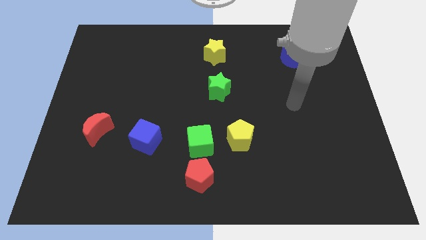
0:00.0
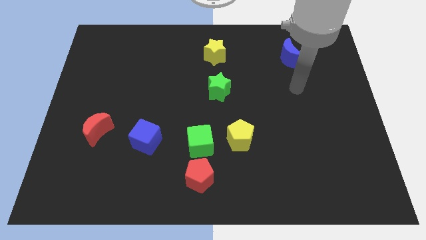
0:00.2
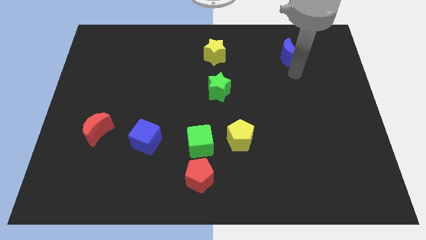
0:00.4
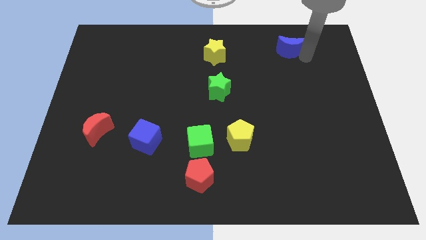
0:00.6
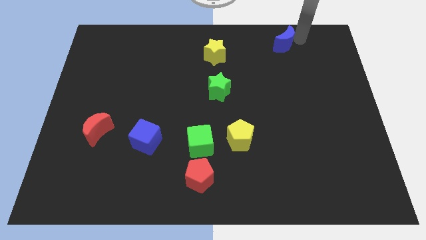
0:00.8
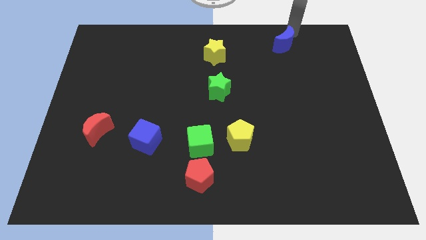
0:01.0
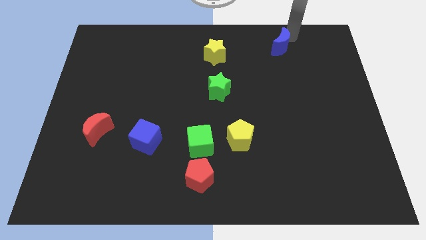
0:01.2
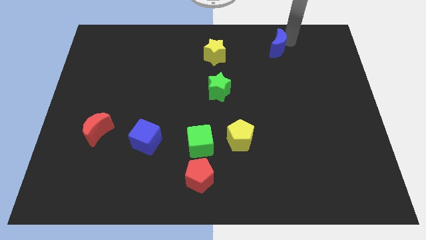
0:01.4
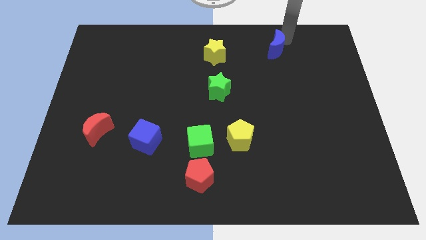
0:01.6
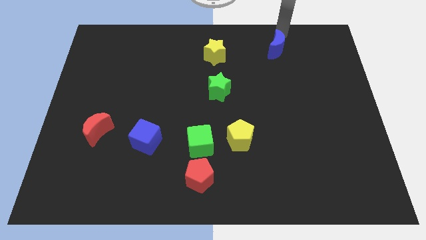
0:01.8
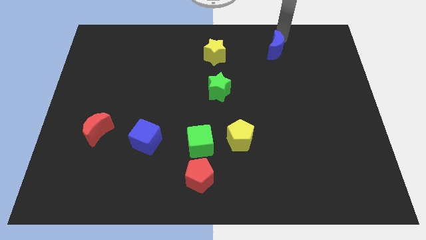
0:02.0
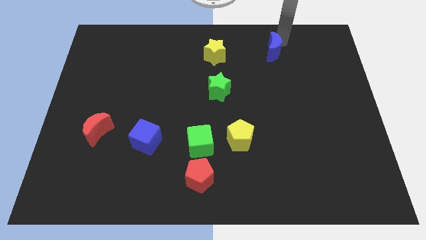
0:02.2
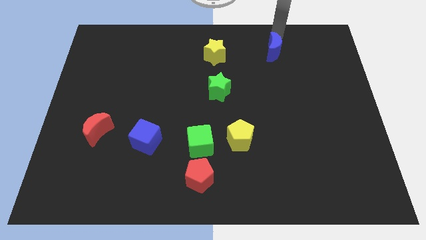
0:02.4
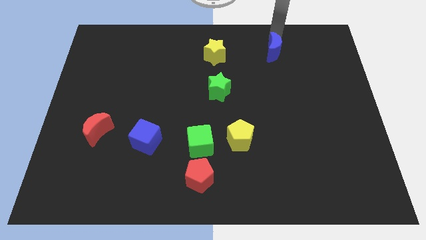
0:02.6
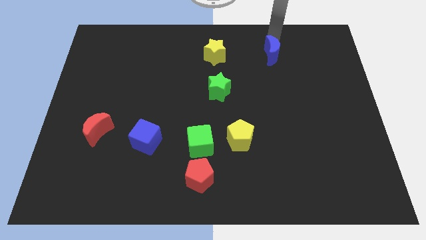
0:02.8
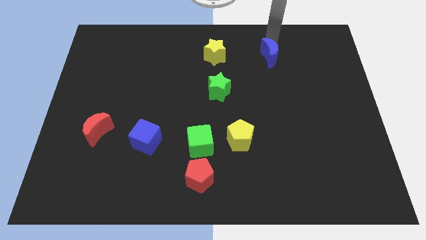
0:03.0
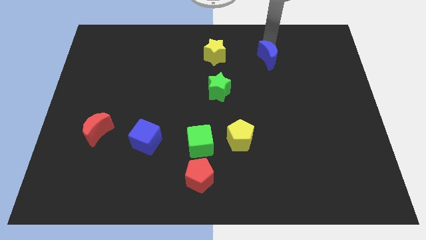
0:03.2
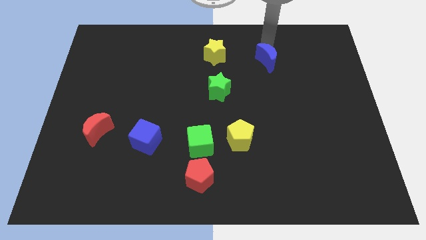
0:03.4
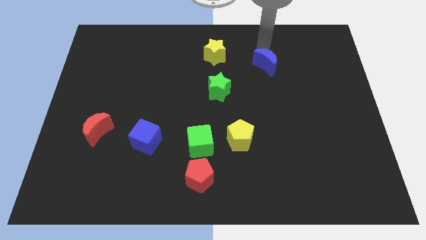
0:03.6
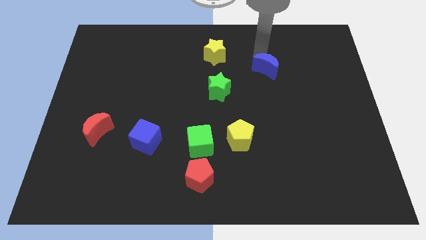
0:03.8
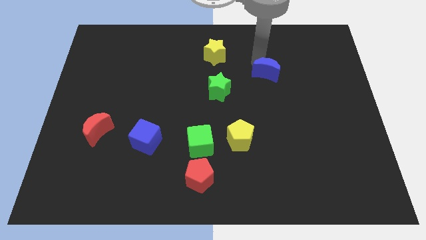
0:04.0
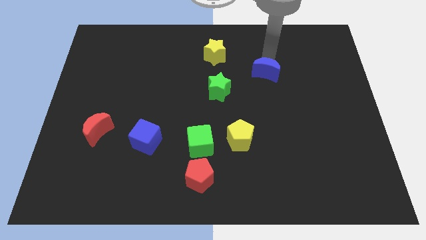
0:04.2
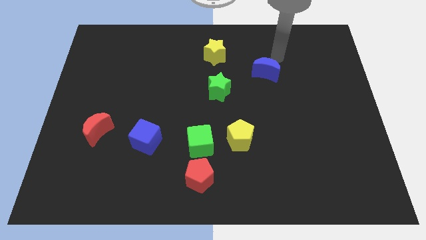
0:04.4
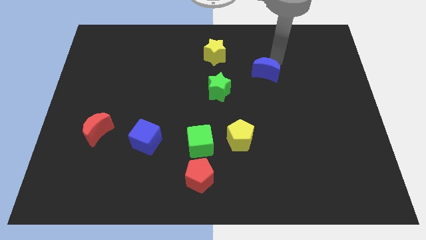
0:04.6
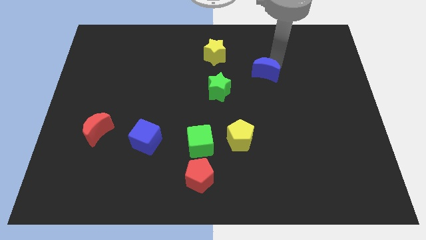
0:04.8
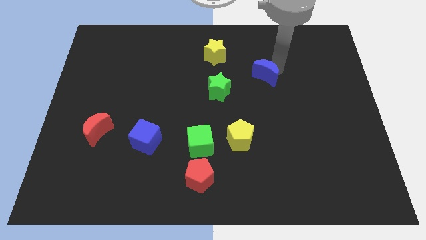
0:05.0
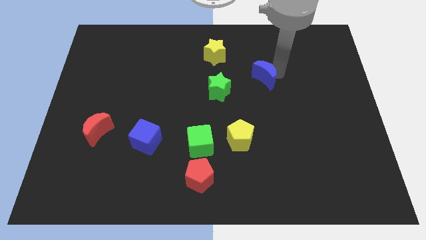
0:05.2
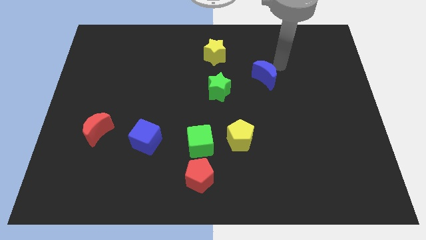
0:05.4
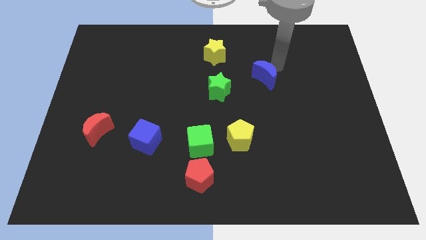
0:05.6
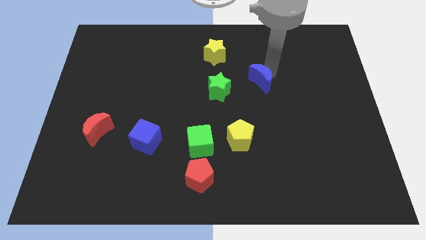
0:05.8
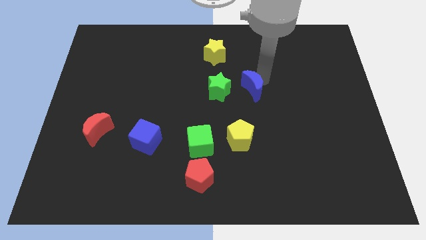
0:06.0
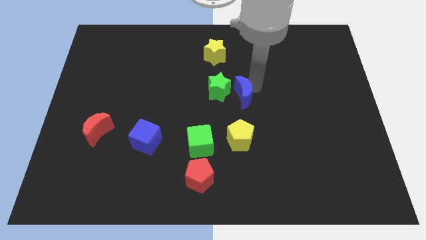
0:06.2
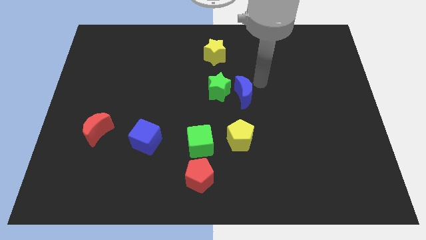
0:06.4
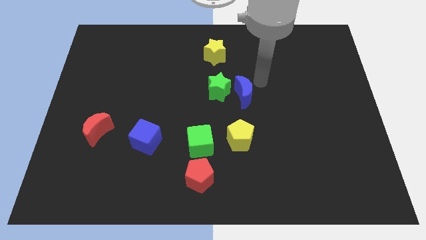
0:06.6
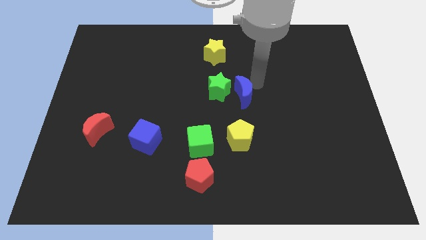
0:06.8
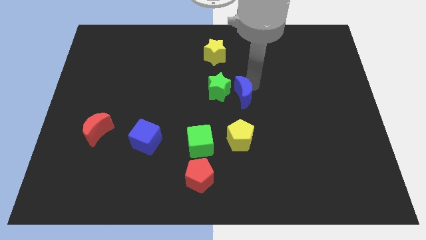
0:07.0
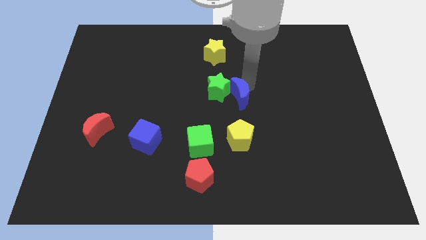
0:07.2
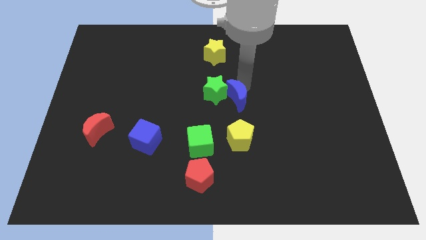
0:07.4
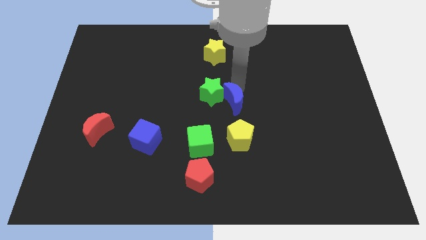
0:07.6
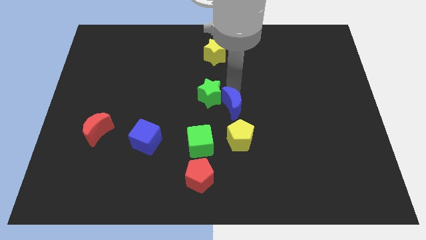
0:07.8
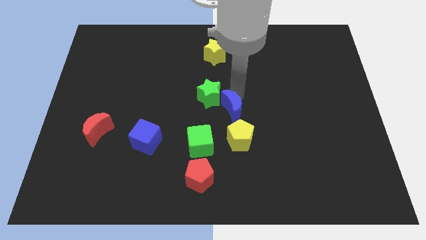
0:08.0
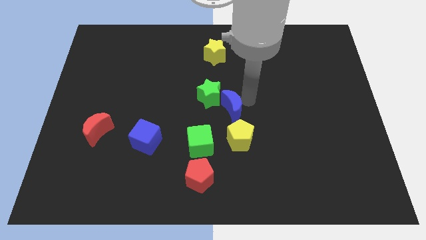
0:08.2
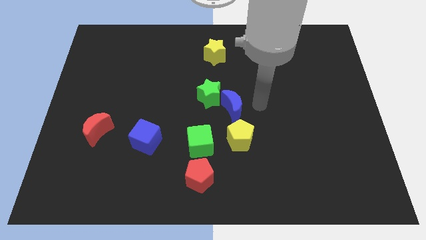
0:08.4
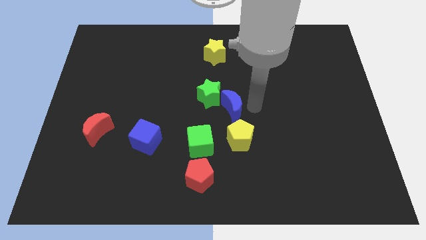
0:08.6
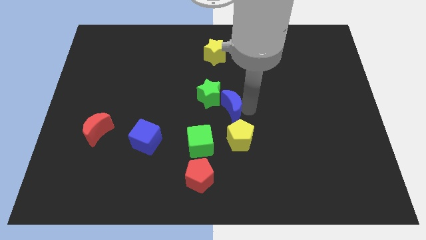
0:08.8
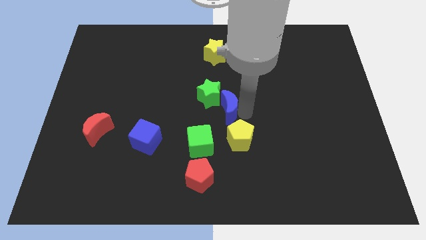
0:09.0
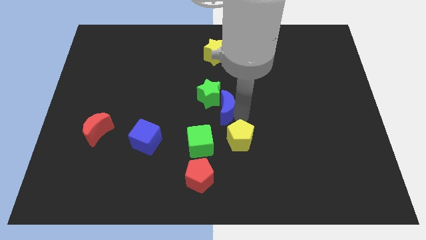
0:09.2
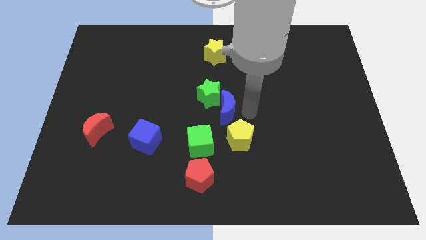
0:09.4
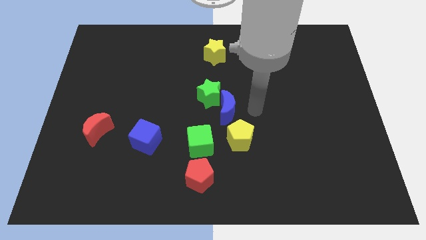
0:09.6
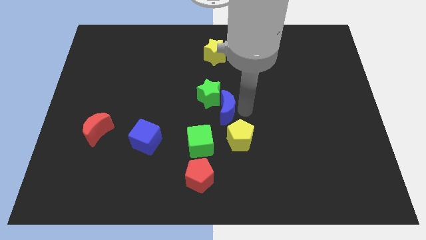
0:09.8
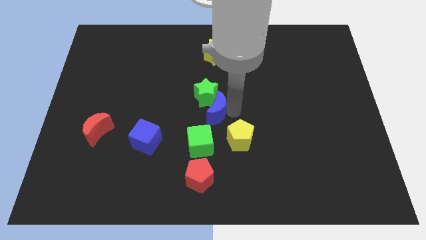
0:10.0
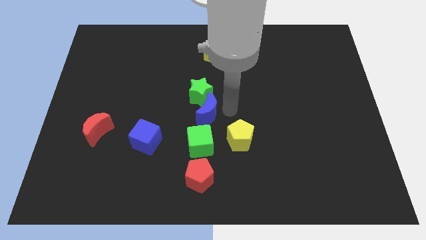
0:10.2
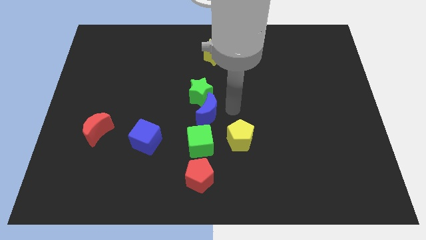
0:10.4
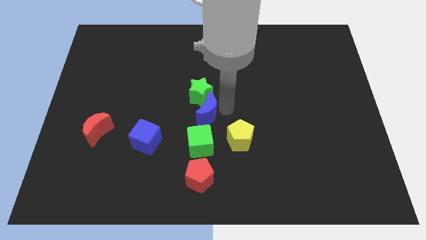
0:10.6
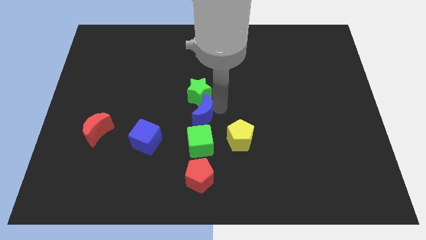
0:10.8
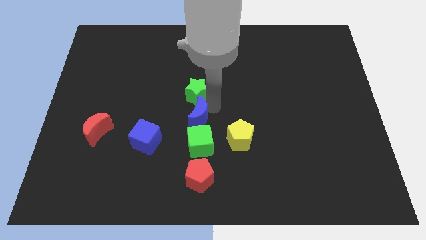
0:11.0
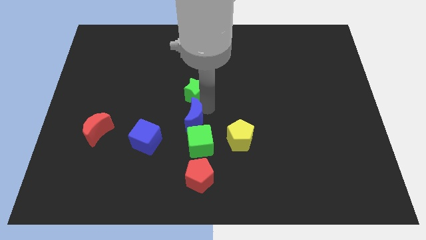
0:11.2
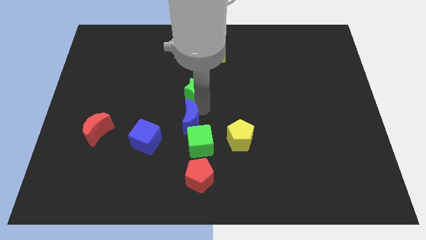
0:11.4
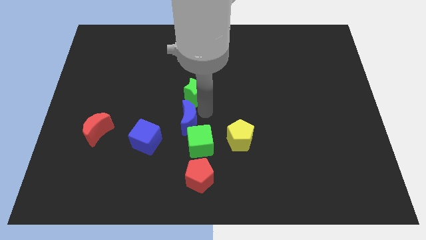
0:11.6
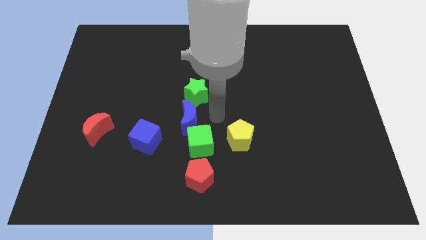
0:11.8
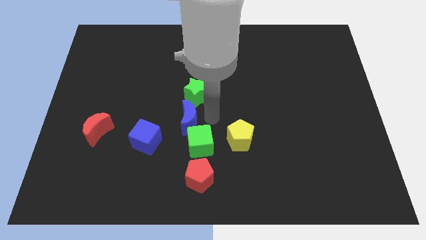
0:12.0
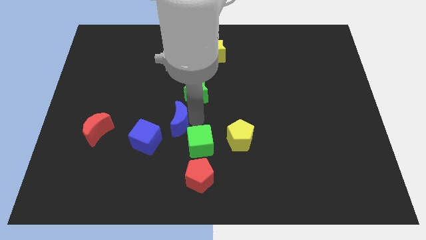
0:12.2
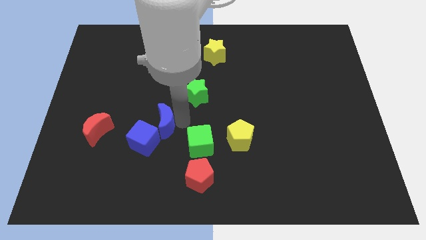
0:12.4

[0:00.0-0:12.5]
put the blue moon to the right of the red moon

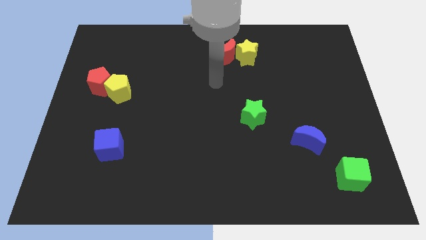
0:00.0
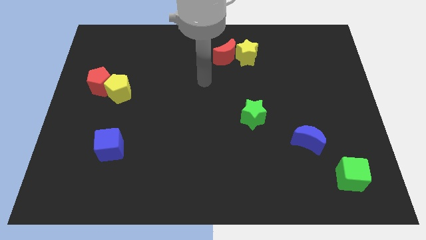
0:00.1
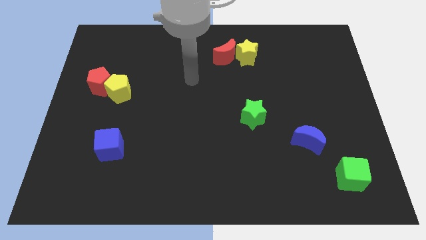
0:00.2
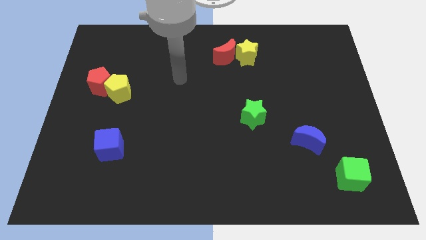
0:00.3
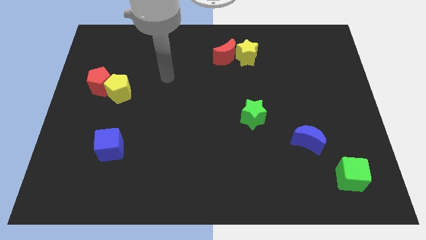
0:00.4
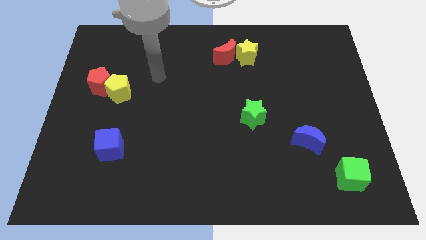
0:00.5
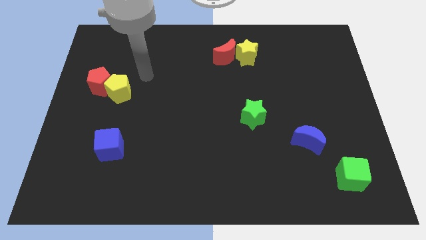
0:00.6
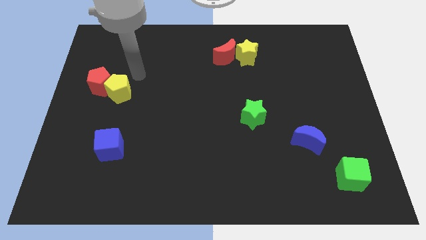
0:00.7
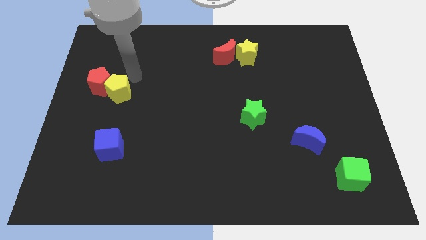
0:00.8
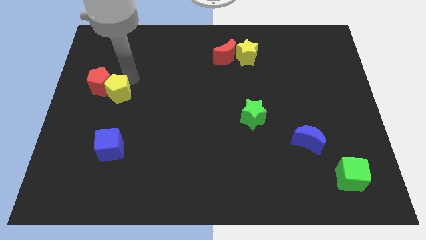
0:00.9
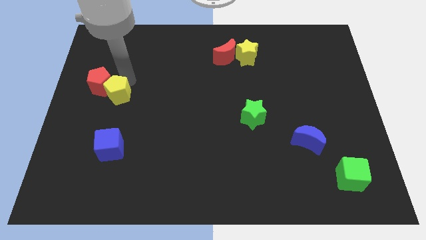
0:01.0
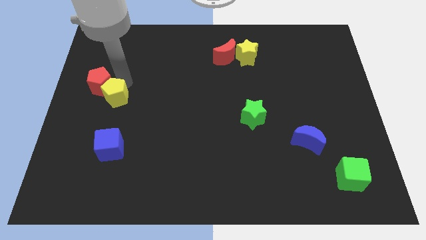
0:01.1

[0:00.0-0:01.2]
move the yellow pentagon below the red pentagon
